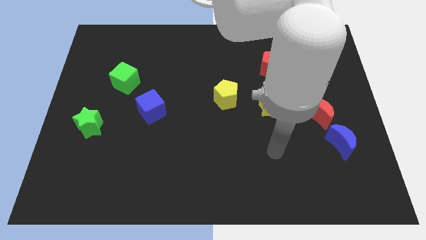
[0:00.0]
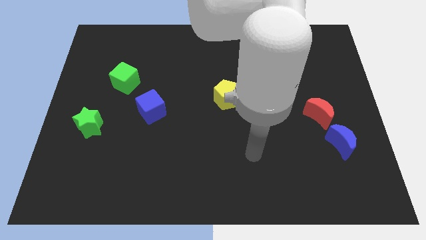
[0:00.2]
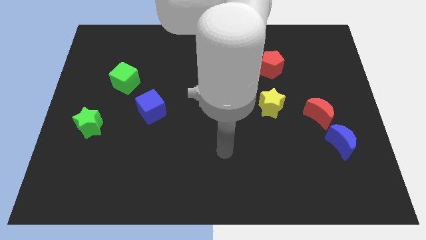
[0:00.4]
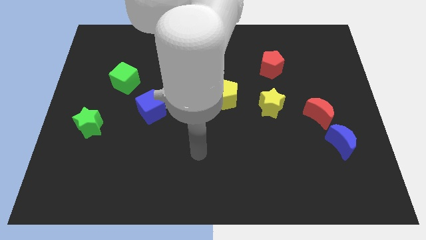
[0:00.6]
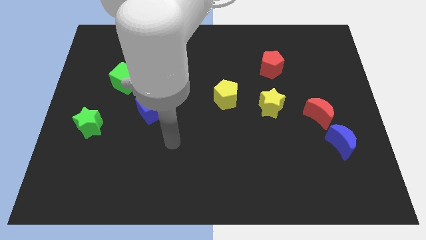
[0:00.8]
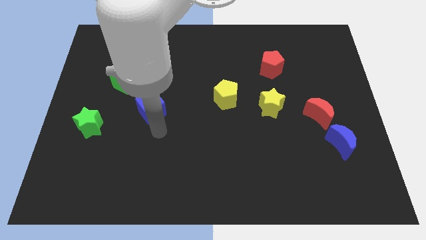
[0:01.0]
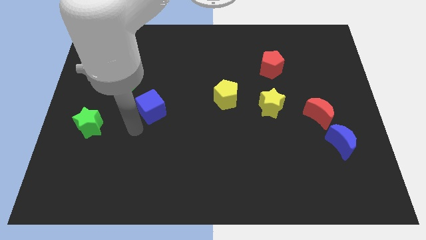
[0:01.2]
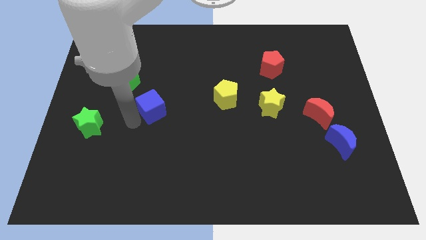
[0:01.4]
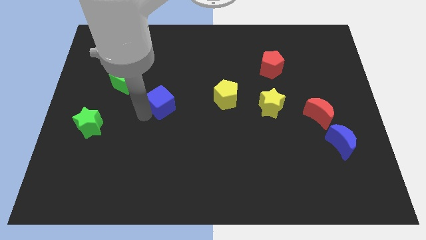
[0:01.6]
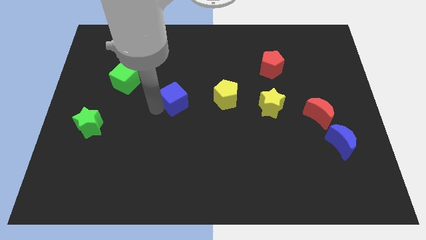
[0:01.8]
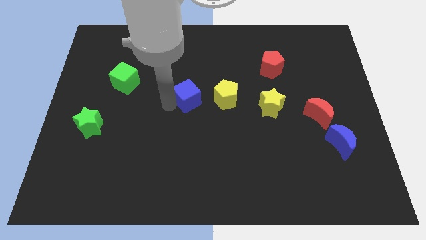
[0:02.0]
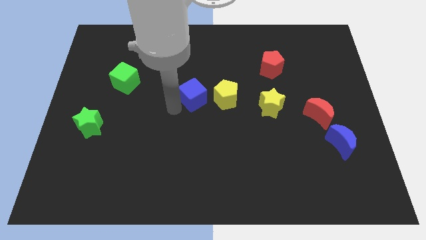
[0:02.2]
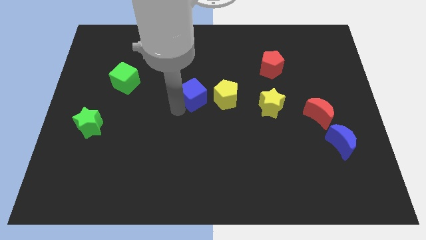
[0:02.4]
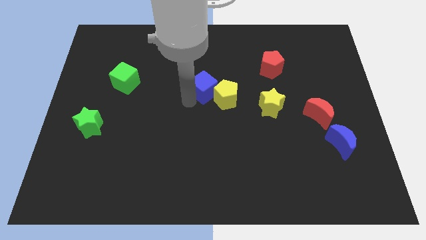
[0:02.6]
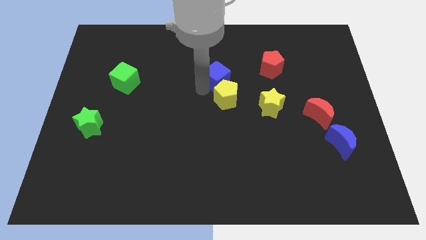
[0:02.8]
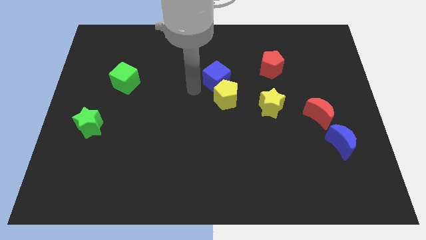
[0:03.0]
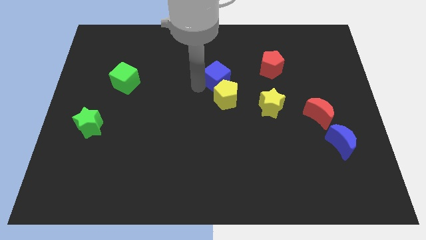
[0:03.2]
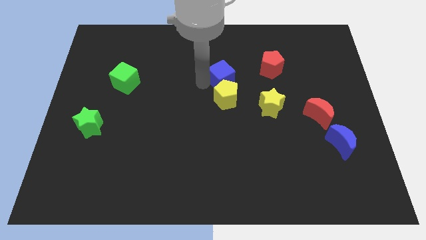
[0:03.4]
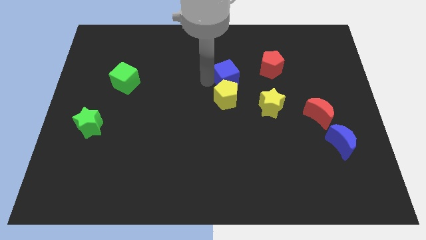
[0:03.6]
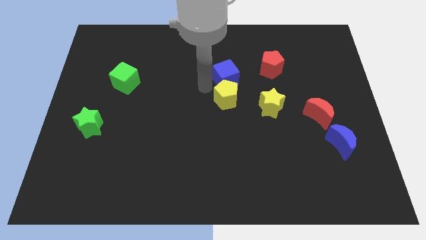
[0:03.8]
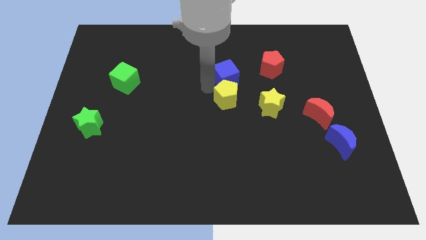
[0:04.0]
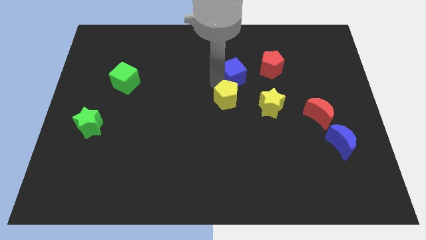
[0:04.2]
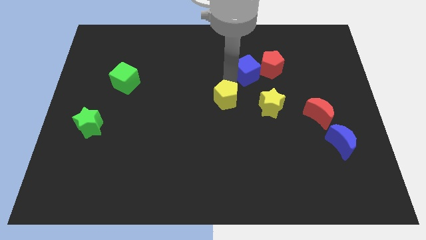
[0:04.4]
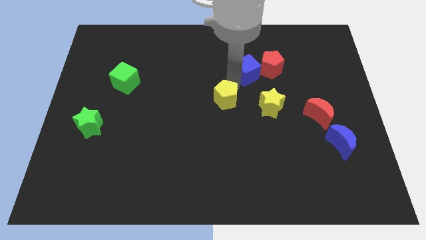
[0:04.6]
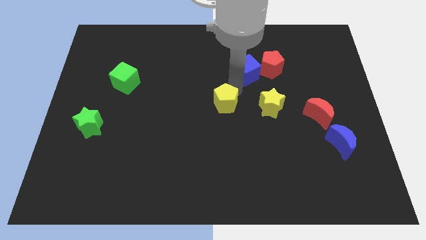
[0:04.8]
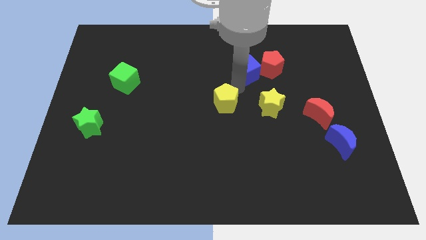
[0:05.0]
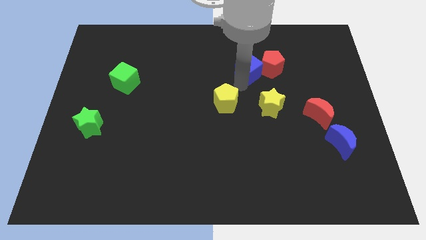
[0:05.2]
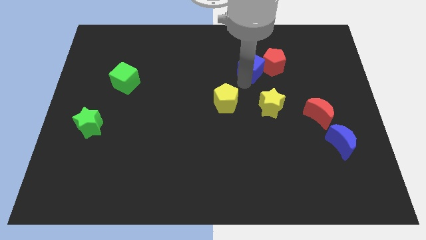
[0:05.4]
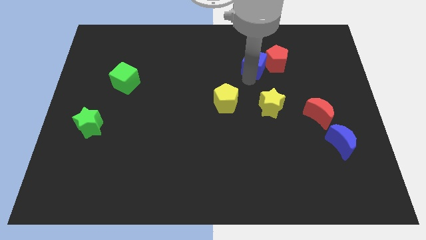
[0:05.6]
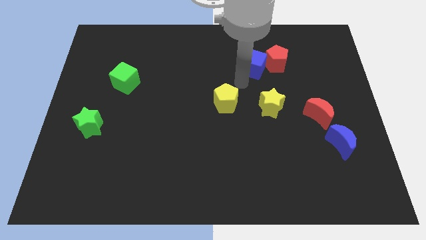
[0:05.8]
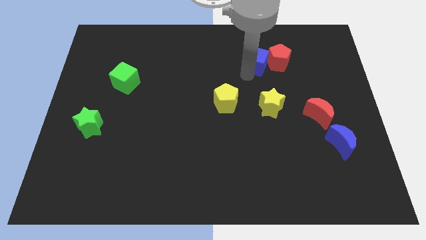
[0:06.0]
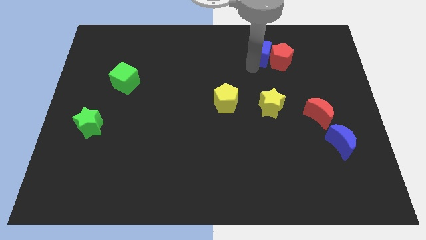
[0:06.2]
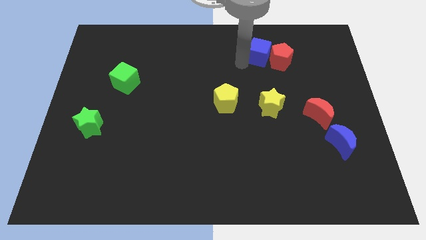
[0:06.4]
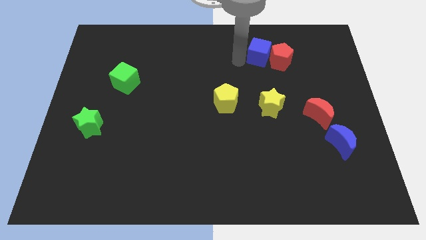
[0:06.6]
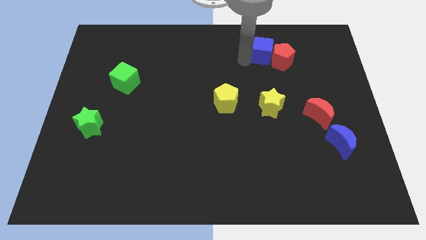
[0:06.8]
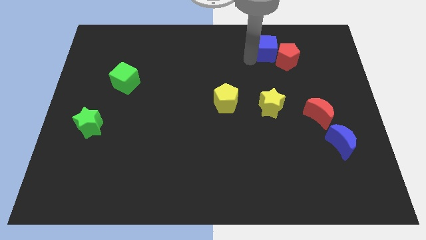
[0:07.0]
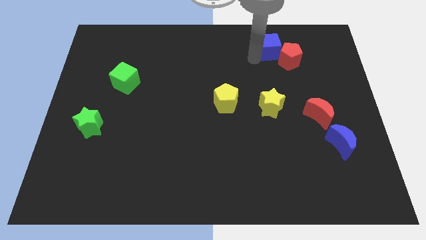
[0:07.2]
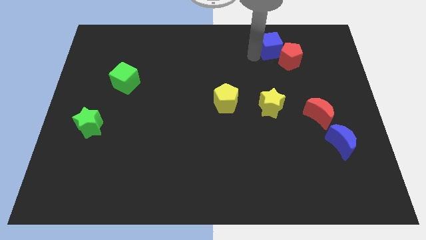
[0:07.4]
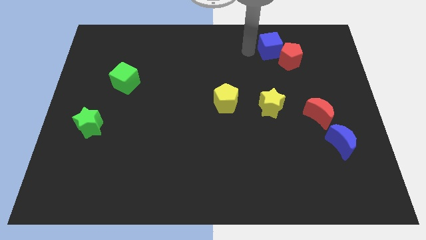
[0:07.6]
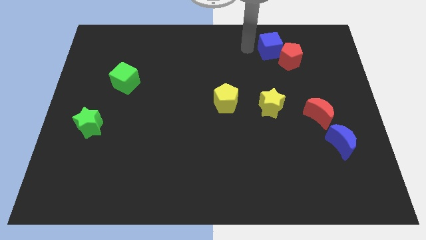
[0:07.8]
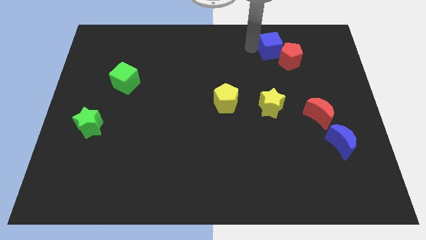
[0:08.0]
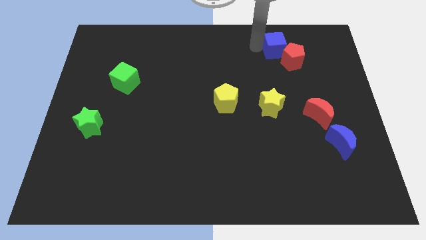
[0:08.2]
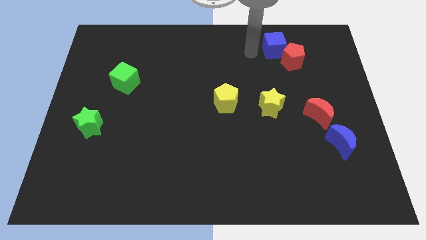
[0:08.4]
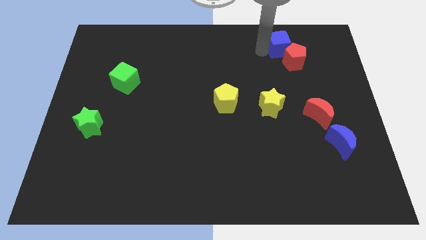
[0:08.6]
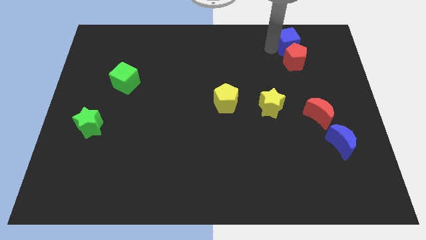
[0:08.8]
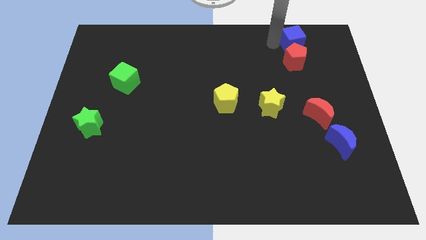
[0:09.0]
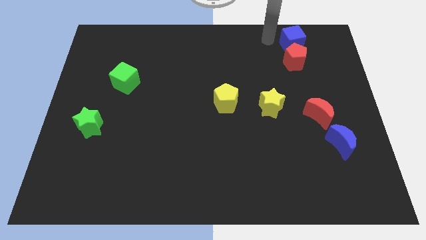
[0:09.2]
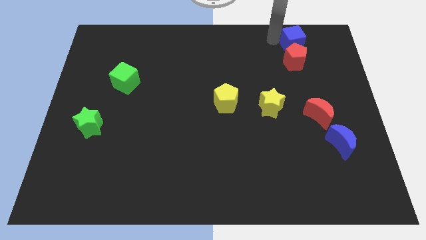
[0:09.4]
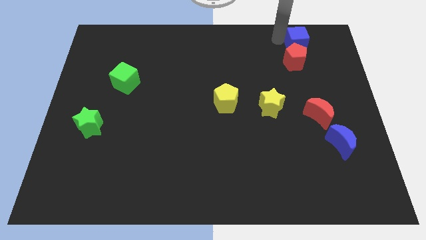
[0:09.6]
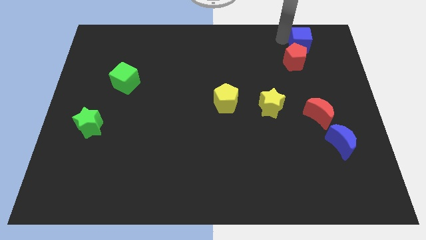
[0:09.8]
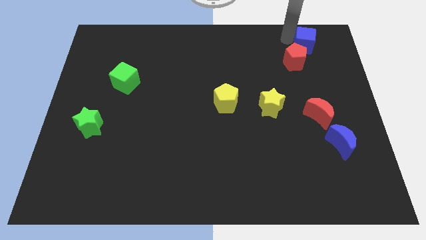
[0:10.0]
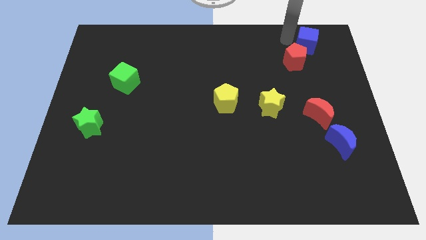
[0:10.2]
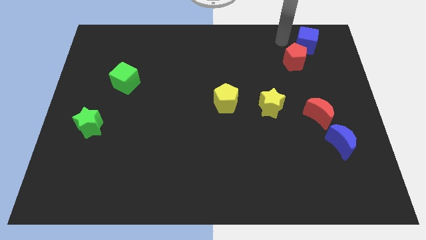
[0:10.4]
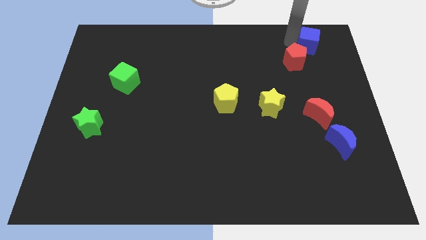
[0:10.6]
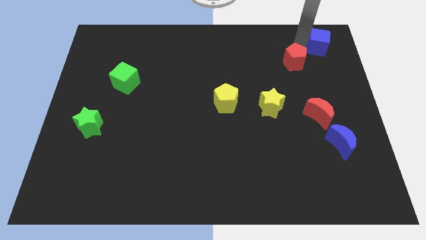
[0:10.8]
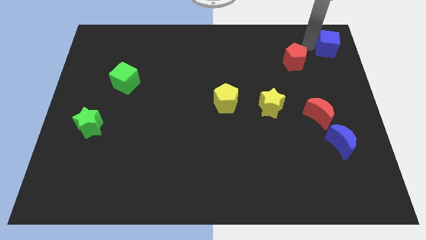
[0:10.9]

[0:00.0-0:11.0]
slide the blue cube to the top right of the board

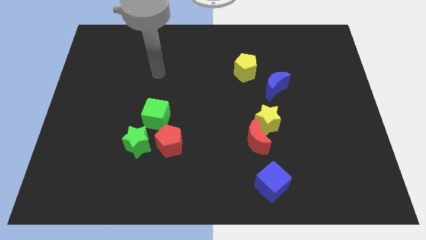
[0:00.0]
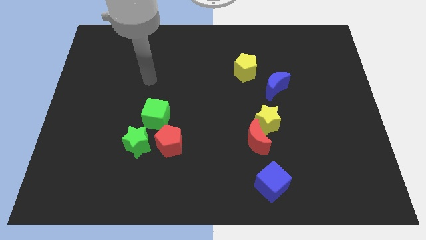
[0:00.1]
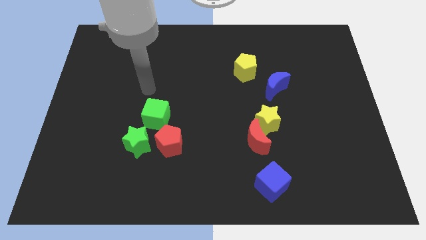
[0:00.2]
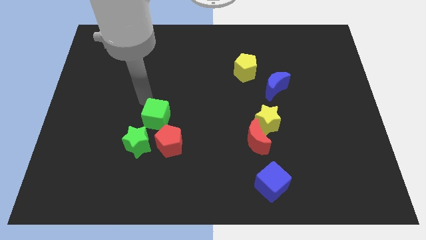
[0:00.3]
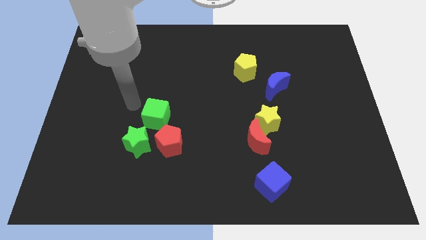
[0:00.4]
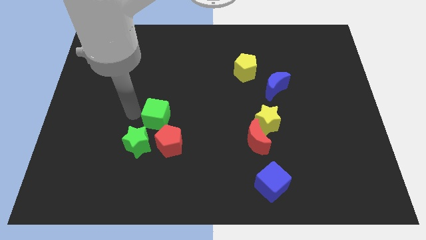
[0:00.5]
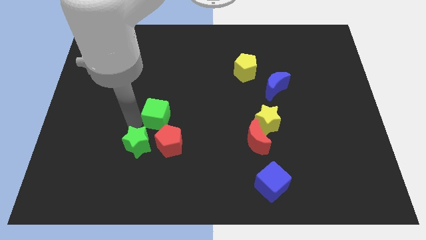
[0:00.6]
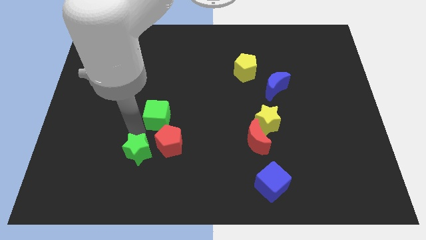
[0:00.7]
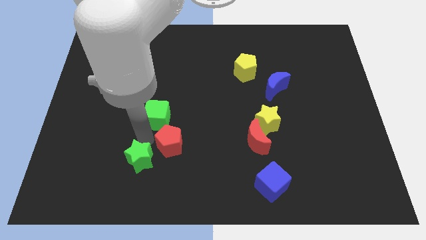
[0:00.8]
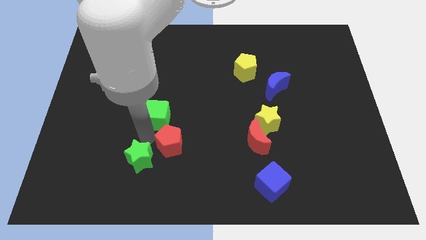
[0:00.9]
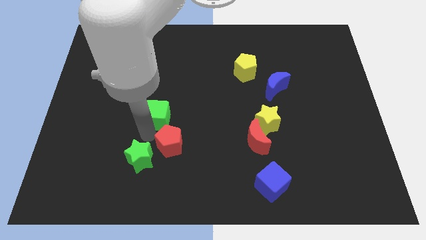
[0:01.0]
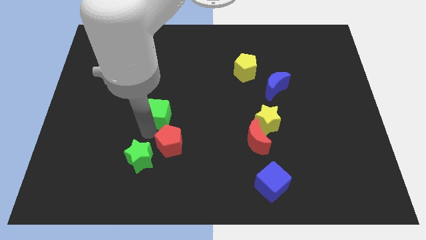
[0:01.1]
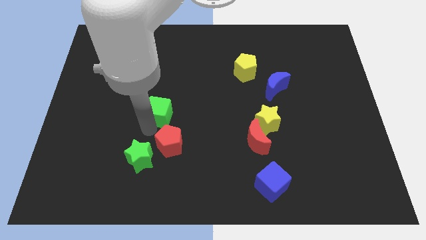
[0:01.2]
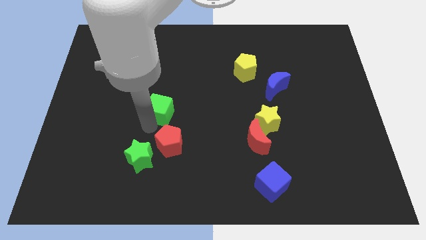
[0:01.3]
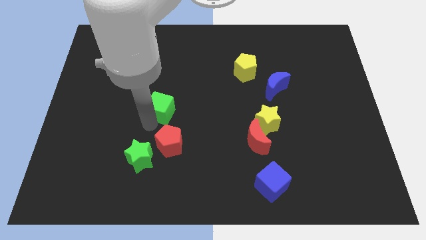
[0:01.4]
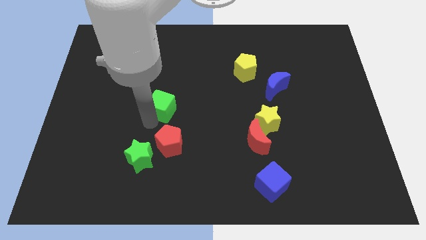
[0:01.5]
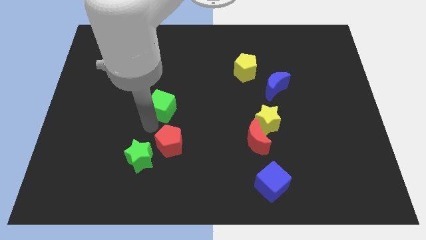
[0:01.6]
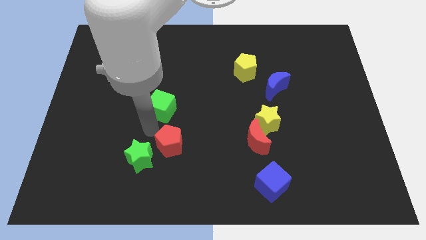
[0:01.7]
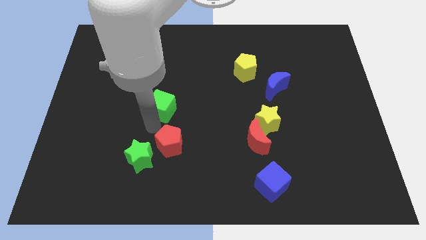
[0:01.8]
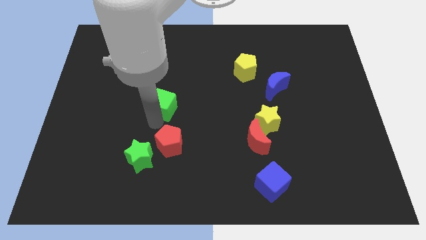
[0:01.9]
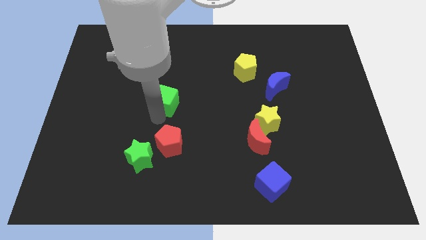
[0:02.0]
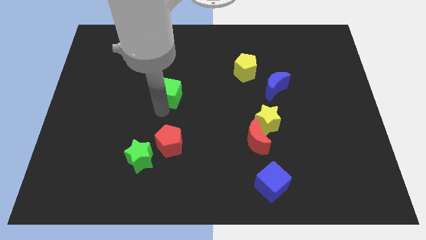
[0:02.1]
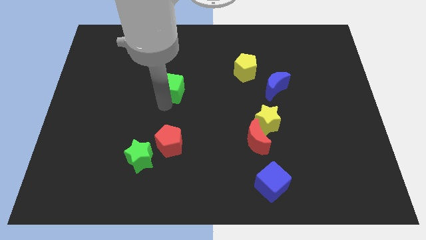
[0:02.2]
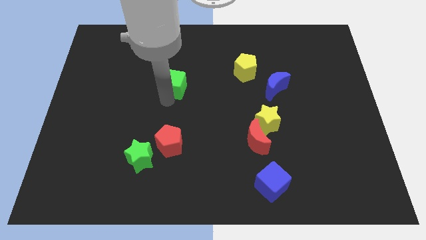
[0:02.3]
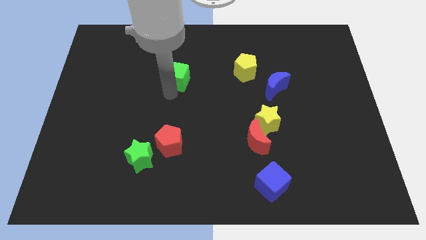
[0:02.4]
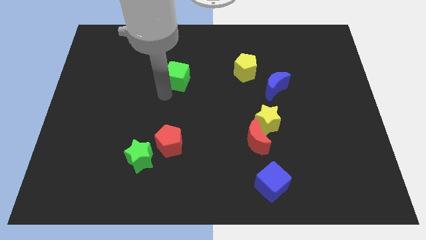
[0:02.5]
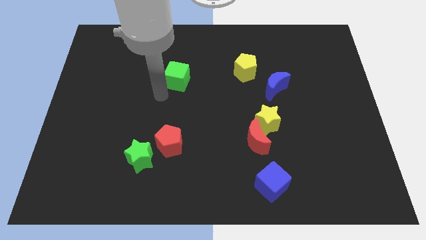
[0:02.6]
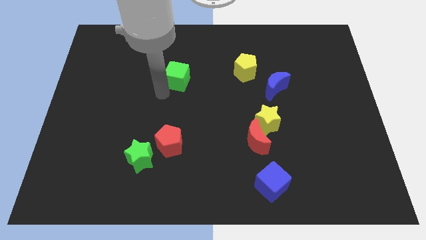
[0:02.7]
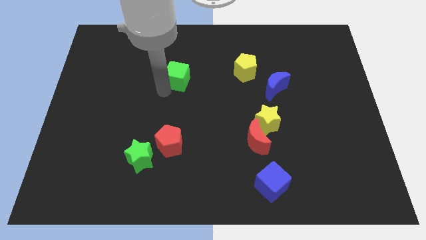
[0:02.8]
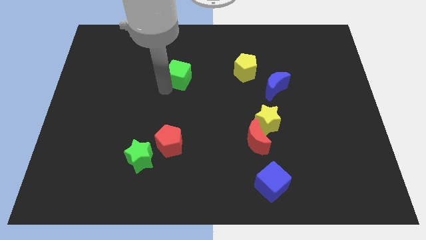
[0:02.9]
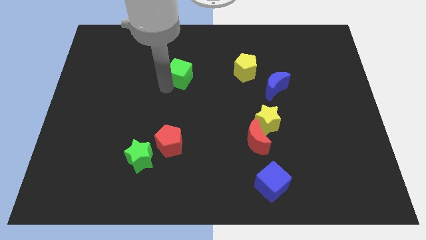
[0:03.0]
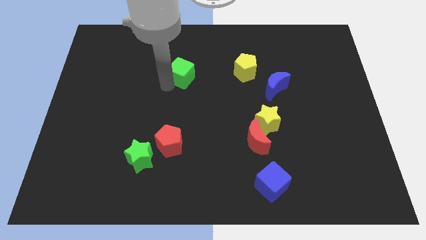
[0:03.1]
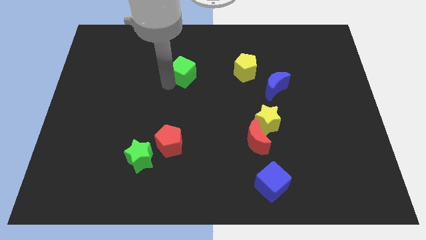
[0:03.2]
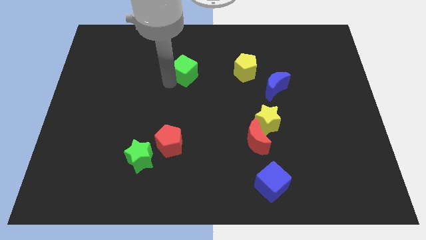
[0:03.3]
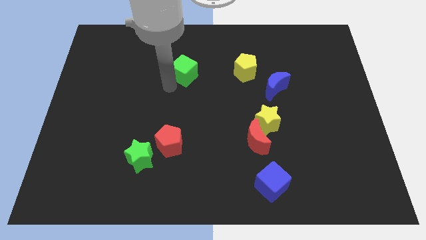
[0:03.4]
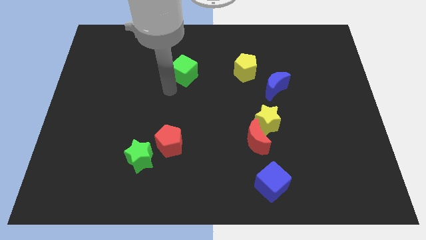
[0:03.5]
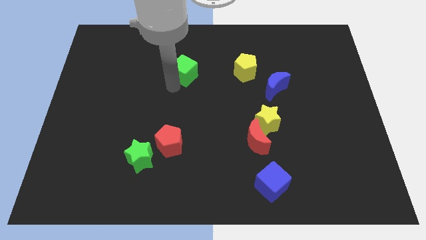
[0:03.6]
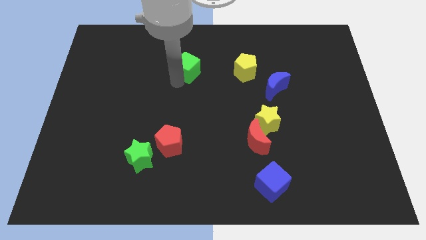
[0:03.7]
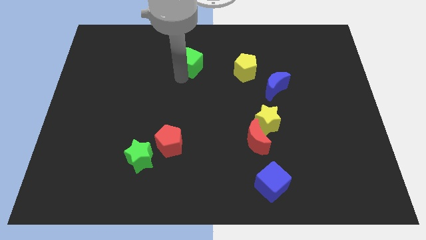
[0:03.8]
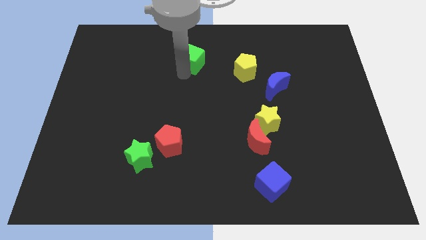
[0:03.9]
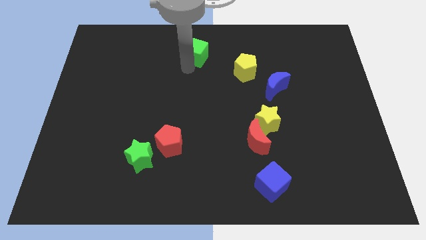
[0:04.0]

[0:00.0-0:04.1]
move the green cube to the top
